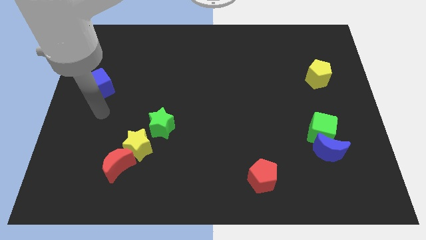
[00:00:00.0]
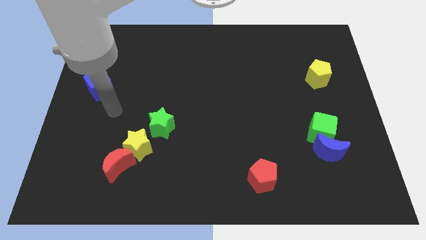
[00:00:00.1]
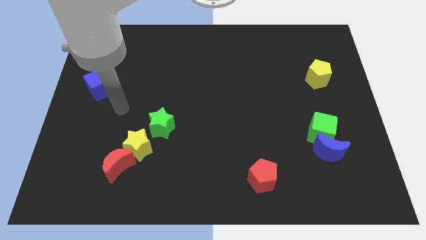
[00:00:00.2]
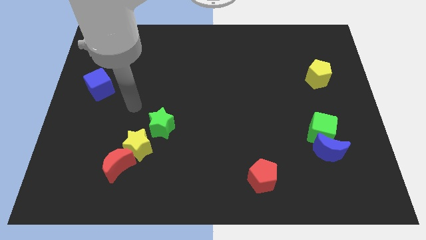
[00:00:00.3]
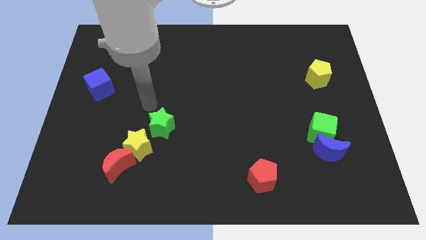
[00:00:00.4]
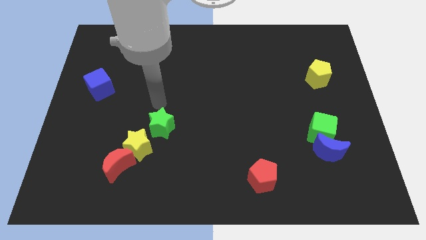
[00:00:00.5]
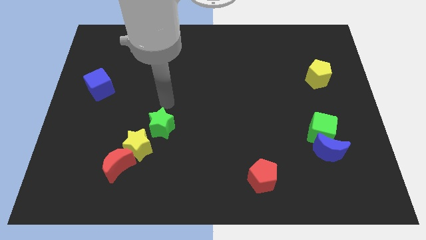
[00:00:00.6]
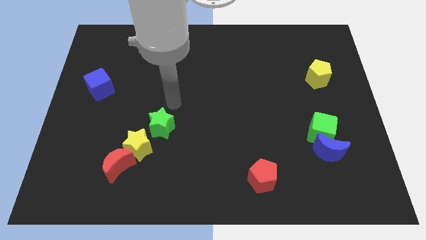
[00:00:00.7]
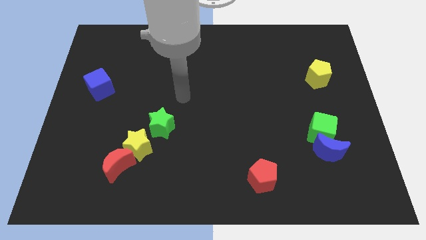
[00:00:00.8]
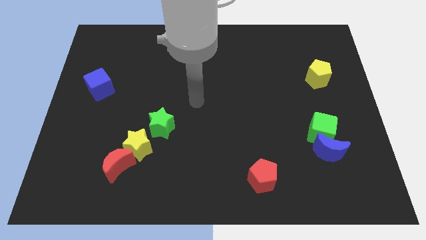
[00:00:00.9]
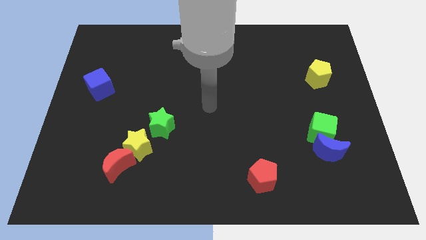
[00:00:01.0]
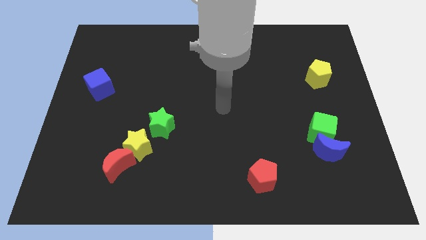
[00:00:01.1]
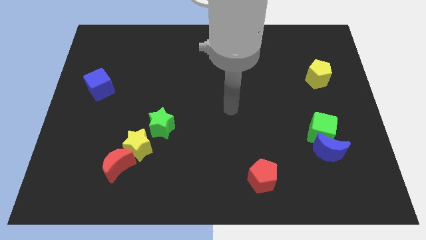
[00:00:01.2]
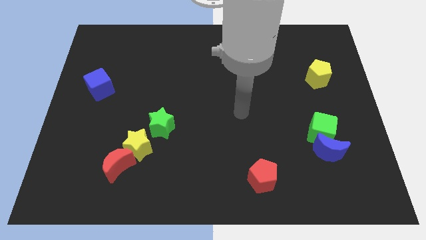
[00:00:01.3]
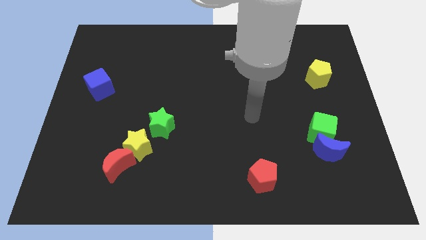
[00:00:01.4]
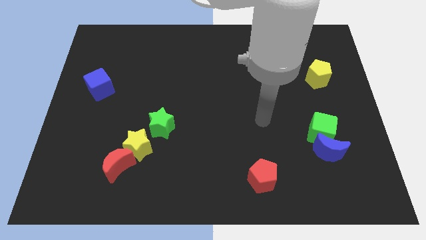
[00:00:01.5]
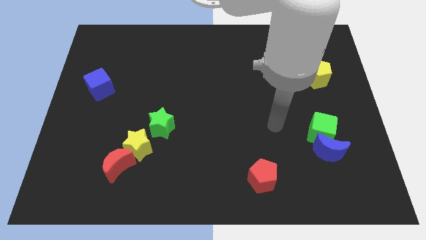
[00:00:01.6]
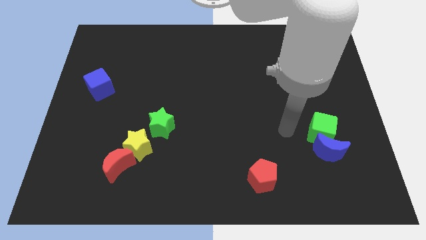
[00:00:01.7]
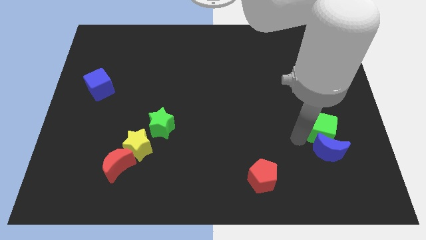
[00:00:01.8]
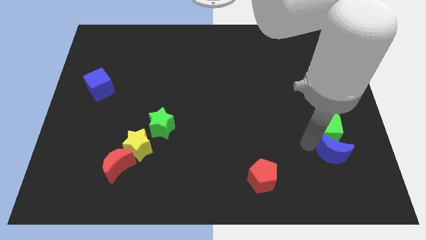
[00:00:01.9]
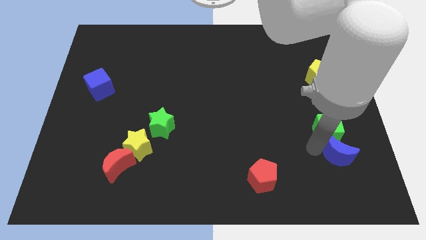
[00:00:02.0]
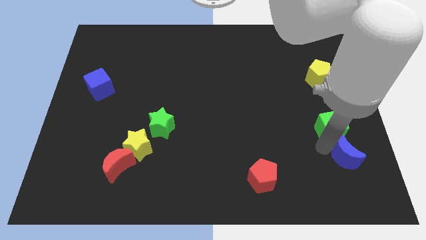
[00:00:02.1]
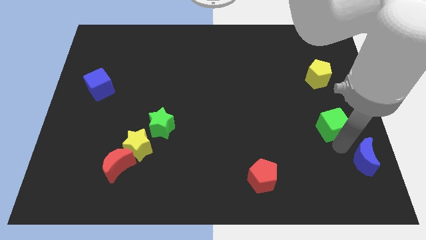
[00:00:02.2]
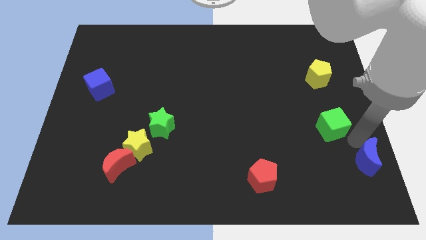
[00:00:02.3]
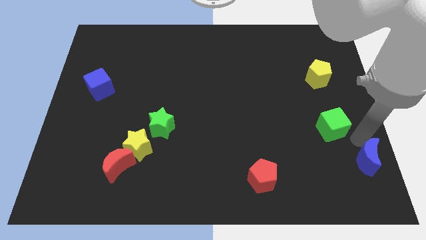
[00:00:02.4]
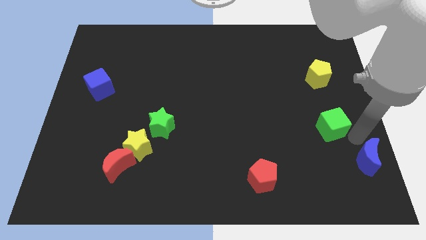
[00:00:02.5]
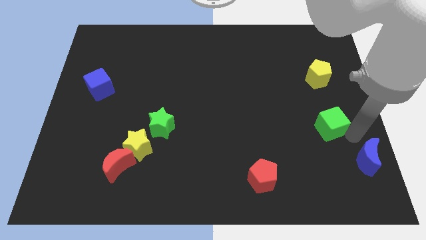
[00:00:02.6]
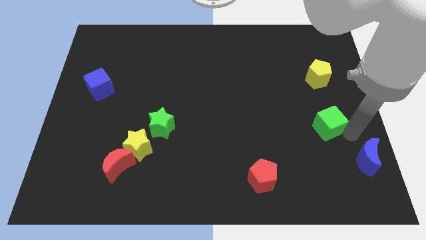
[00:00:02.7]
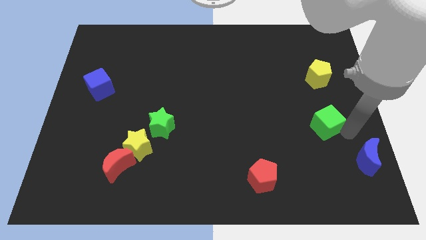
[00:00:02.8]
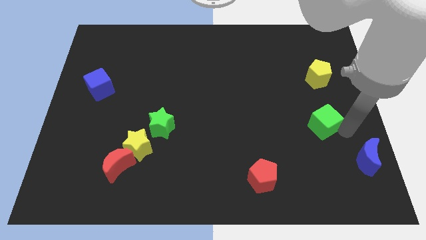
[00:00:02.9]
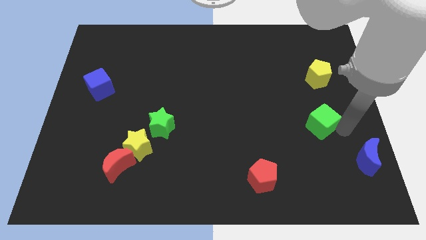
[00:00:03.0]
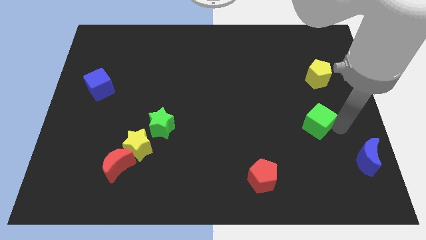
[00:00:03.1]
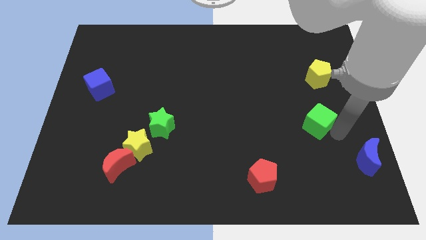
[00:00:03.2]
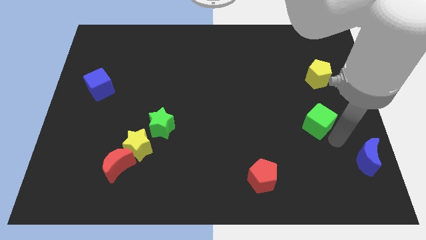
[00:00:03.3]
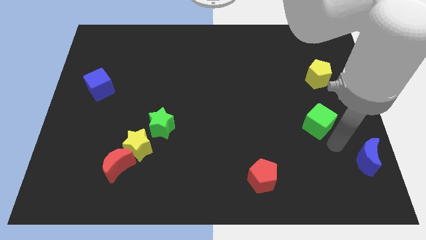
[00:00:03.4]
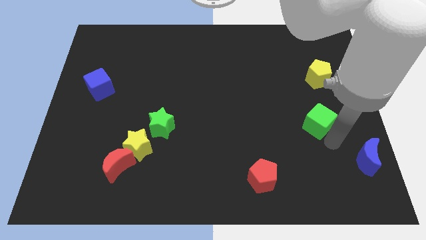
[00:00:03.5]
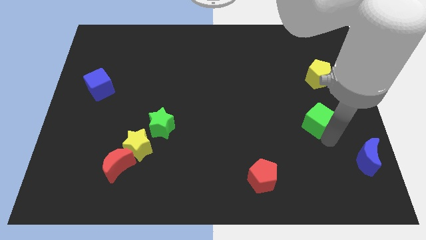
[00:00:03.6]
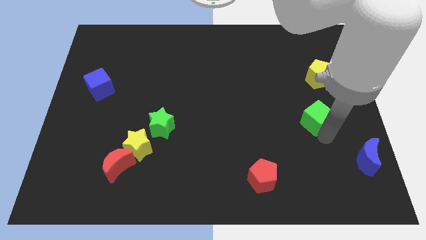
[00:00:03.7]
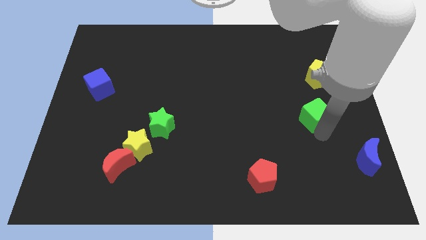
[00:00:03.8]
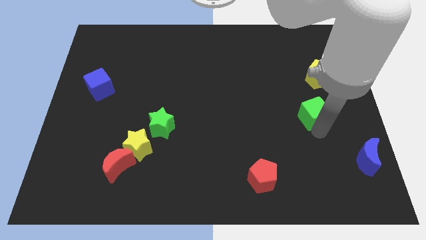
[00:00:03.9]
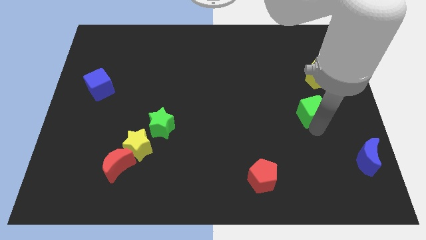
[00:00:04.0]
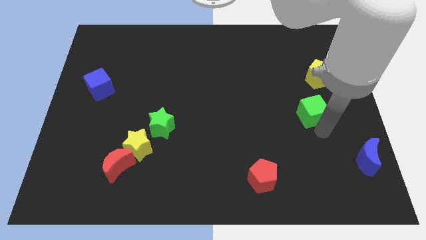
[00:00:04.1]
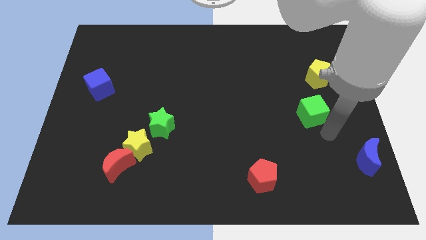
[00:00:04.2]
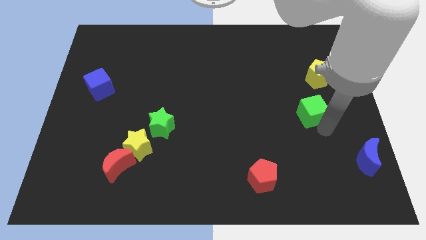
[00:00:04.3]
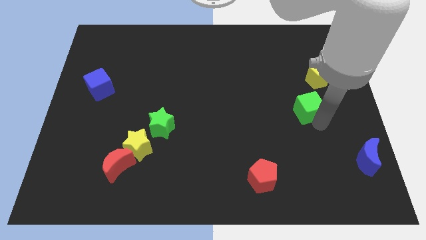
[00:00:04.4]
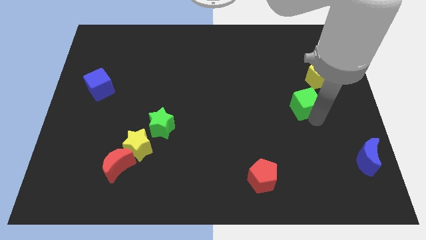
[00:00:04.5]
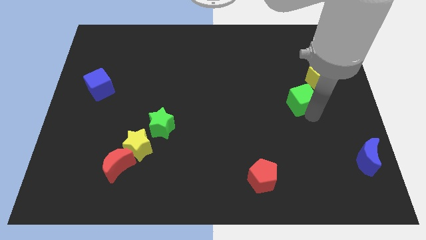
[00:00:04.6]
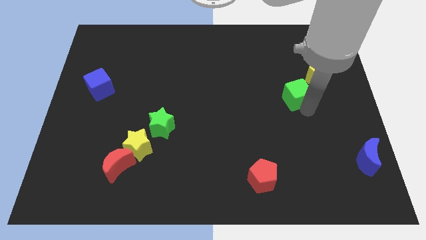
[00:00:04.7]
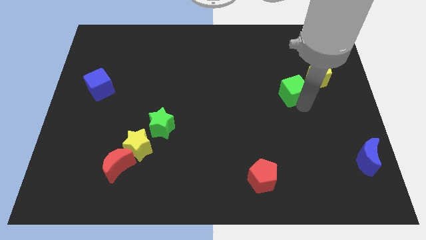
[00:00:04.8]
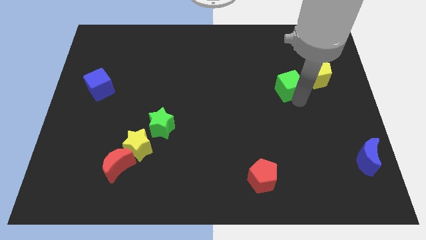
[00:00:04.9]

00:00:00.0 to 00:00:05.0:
put the green cube to the left side of the yellow pentagon

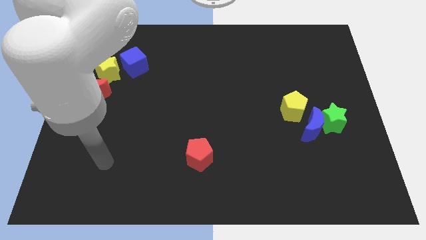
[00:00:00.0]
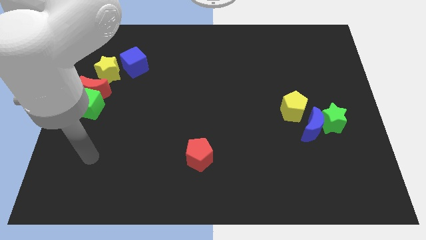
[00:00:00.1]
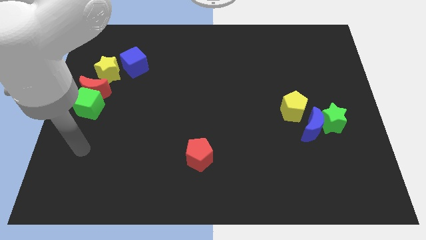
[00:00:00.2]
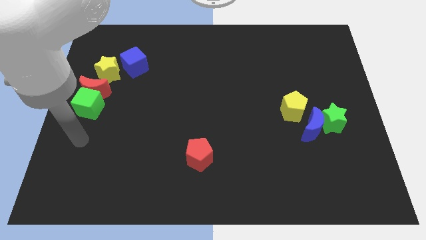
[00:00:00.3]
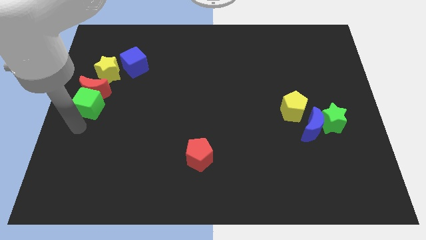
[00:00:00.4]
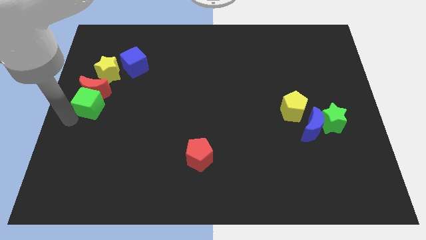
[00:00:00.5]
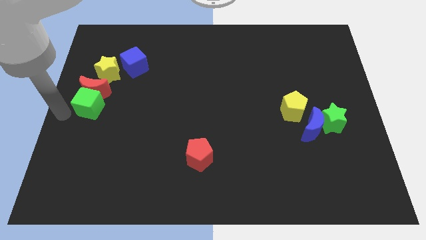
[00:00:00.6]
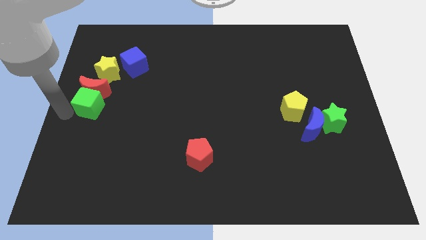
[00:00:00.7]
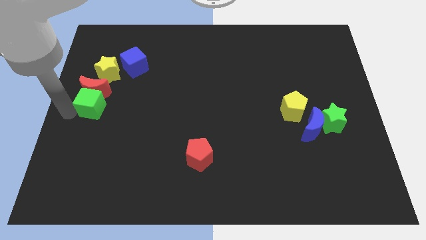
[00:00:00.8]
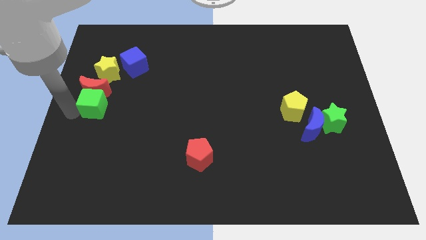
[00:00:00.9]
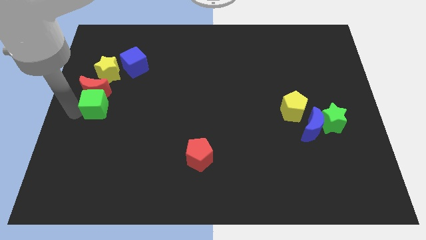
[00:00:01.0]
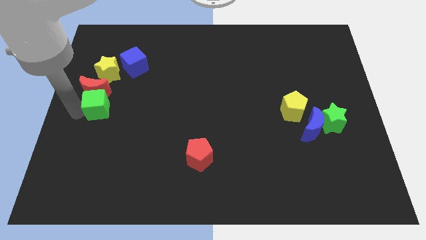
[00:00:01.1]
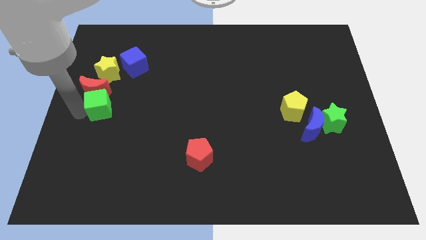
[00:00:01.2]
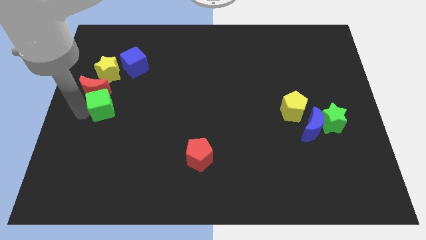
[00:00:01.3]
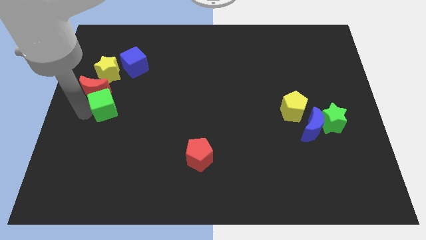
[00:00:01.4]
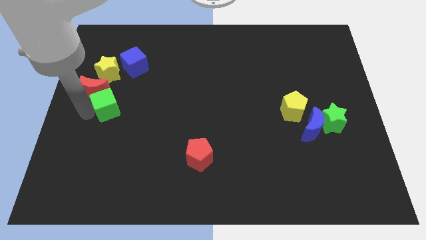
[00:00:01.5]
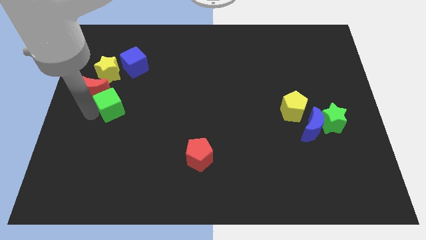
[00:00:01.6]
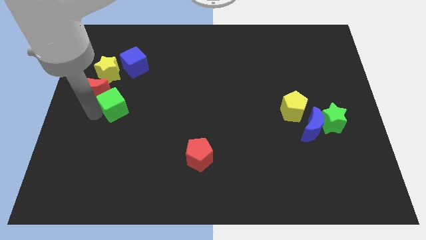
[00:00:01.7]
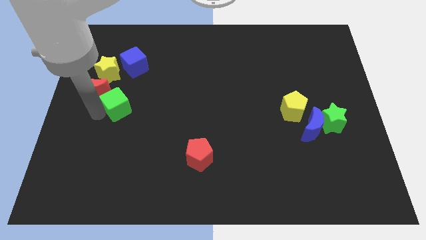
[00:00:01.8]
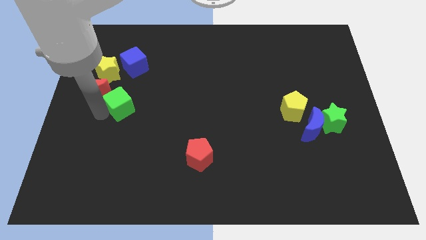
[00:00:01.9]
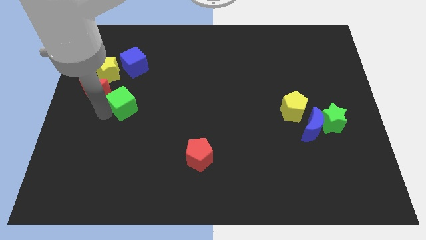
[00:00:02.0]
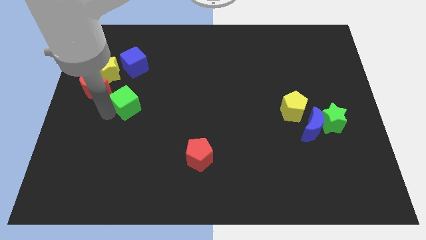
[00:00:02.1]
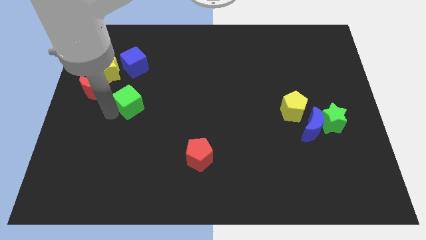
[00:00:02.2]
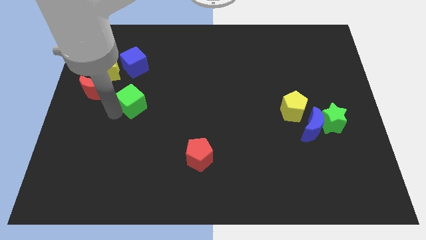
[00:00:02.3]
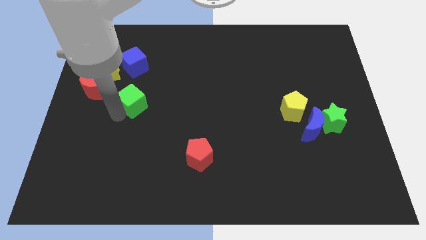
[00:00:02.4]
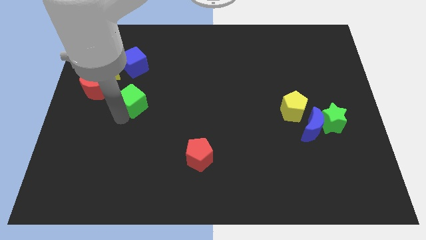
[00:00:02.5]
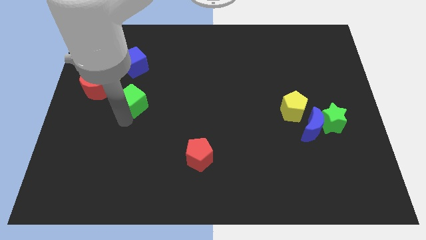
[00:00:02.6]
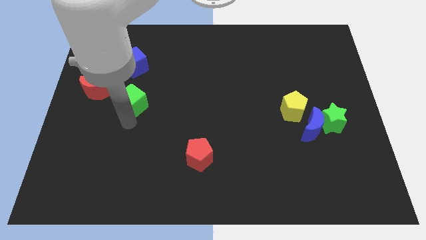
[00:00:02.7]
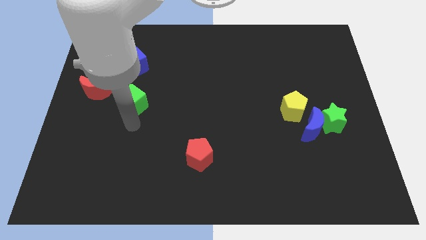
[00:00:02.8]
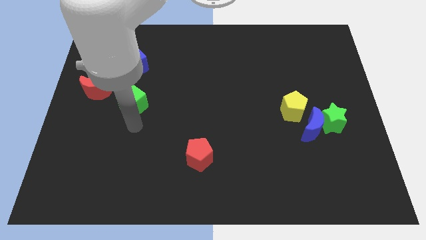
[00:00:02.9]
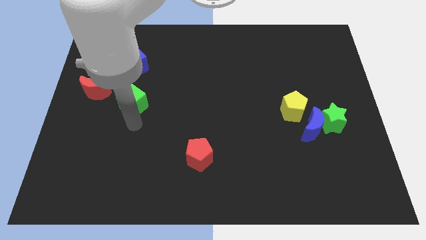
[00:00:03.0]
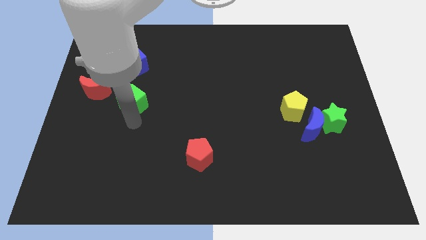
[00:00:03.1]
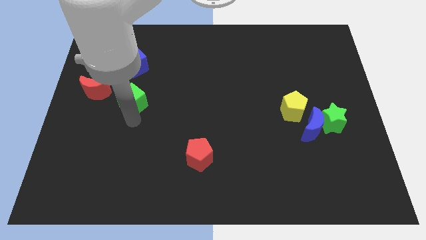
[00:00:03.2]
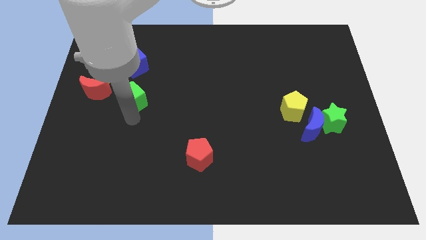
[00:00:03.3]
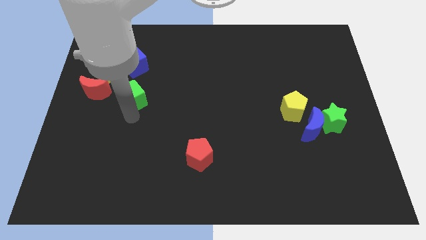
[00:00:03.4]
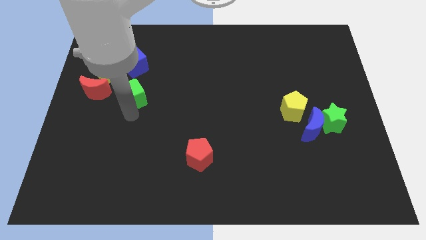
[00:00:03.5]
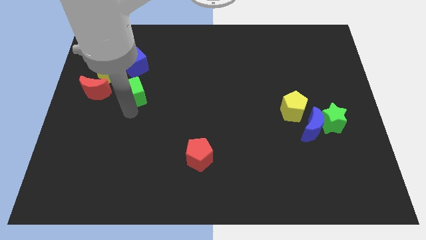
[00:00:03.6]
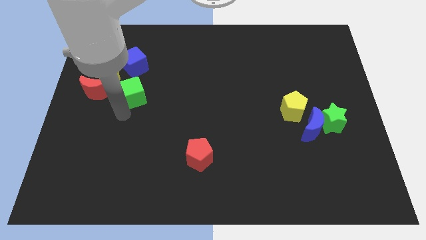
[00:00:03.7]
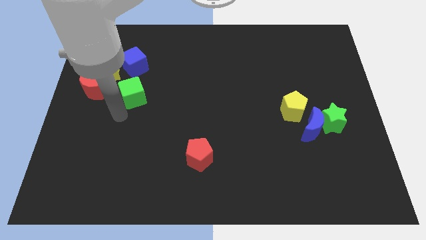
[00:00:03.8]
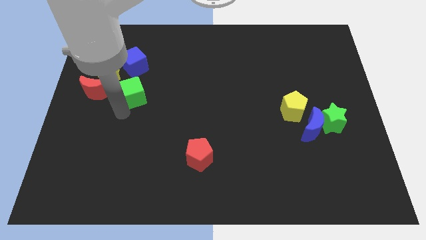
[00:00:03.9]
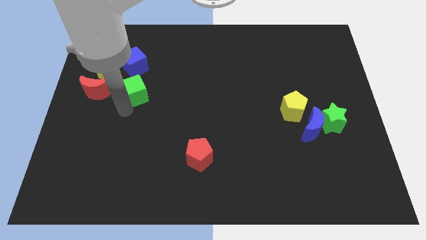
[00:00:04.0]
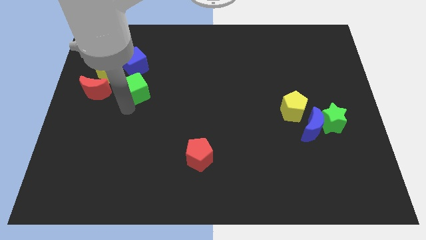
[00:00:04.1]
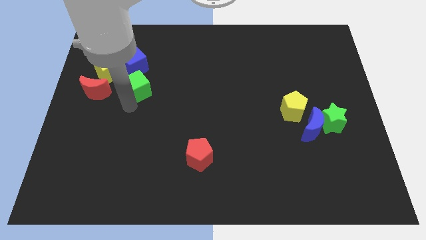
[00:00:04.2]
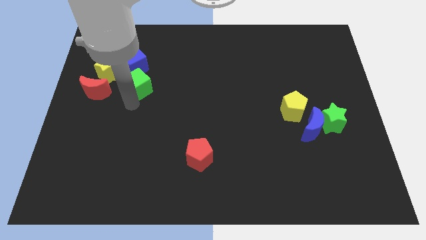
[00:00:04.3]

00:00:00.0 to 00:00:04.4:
slide the green cube to the right side of the yellow star
